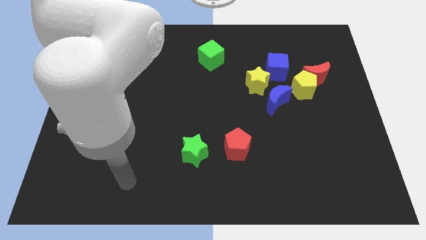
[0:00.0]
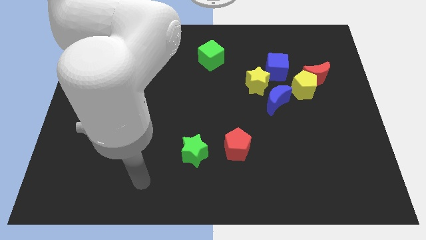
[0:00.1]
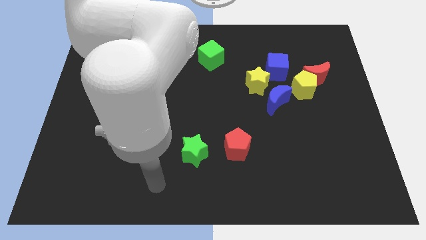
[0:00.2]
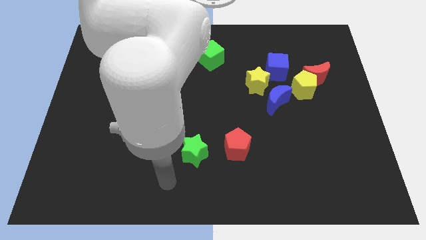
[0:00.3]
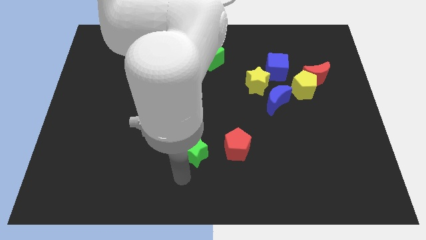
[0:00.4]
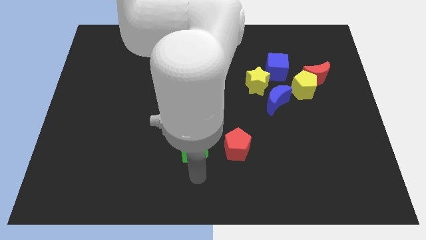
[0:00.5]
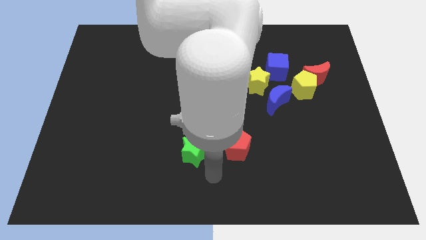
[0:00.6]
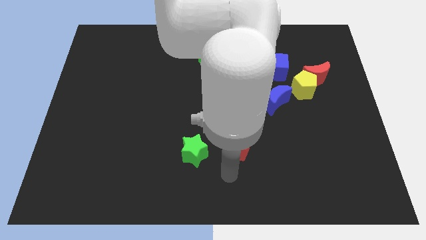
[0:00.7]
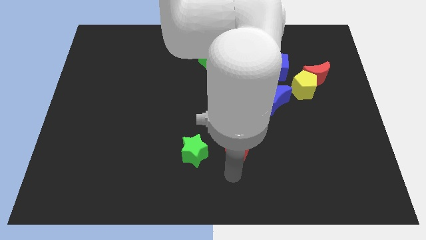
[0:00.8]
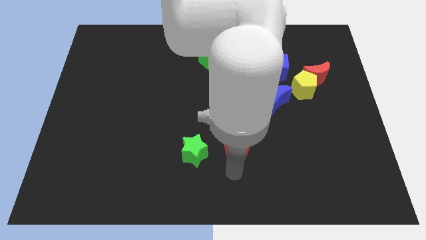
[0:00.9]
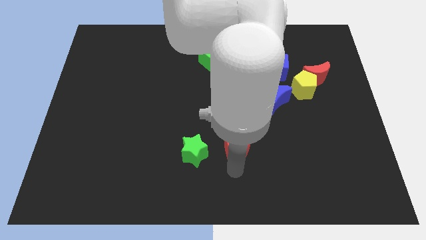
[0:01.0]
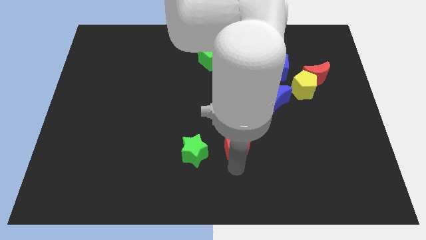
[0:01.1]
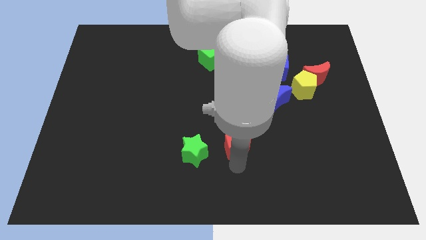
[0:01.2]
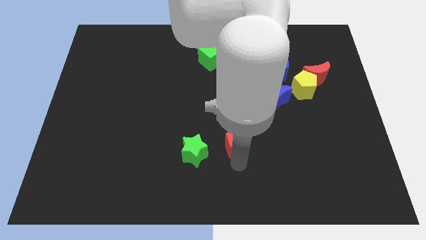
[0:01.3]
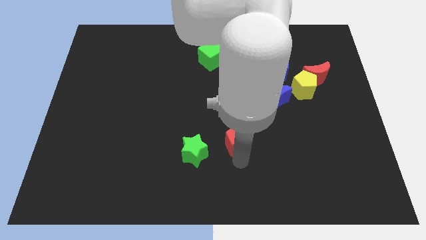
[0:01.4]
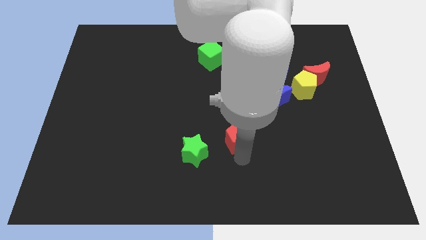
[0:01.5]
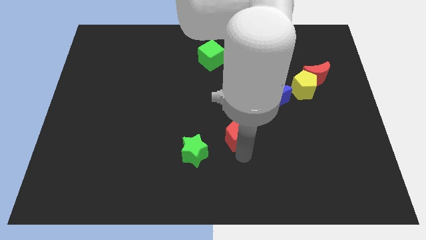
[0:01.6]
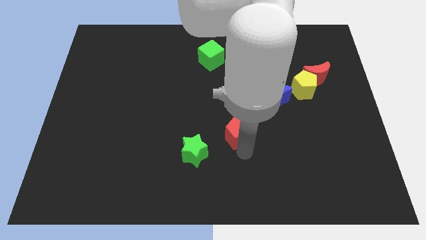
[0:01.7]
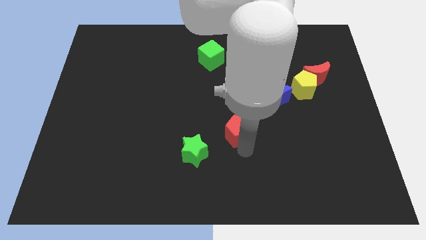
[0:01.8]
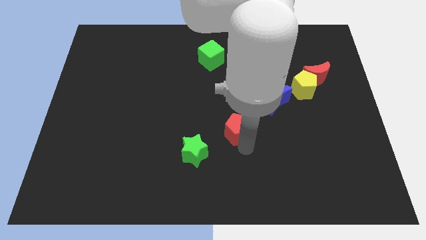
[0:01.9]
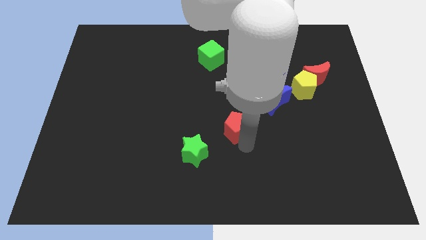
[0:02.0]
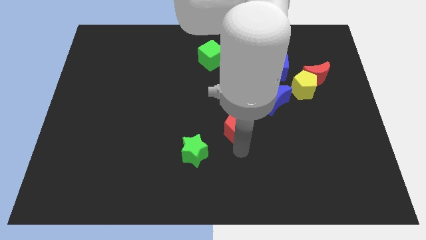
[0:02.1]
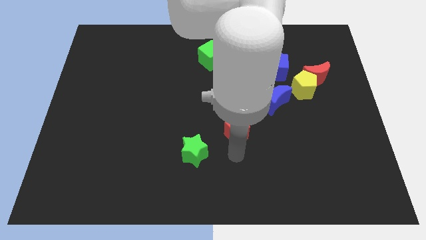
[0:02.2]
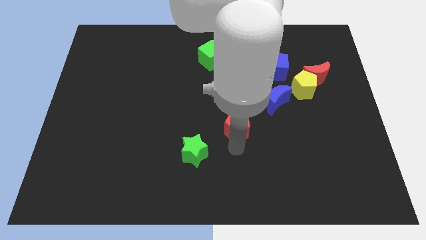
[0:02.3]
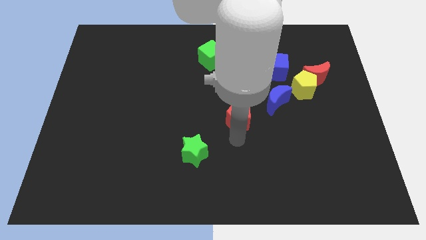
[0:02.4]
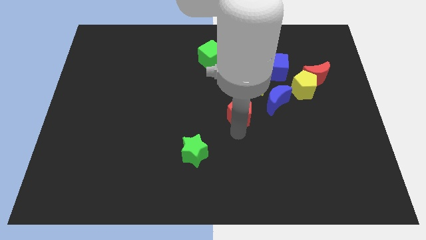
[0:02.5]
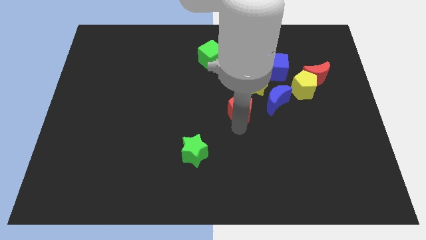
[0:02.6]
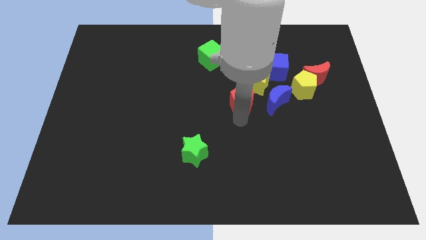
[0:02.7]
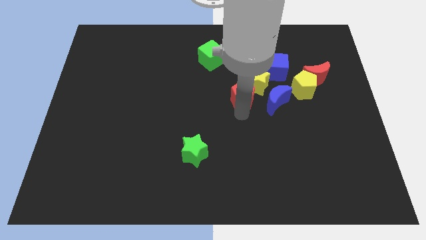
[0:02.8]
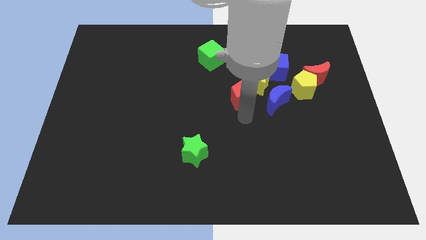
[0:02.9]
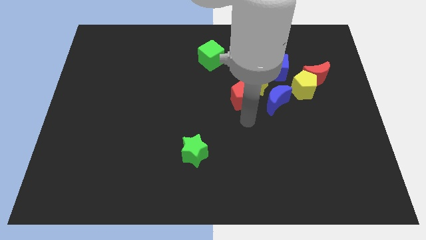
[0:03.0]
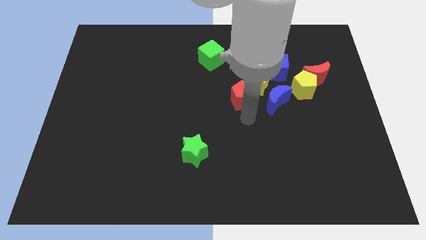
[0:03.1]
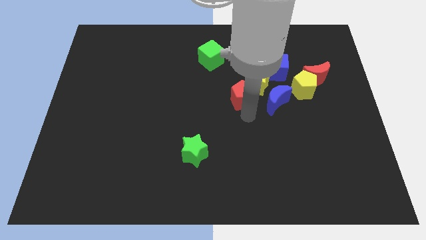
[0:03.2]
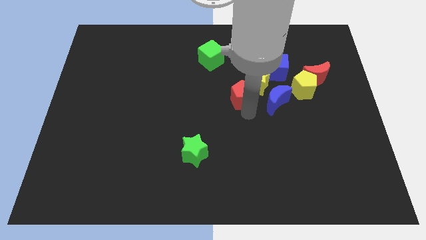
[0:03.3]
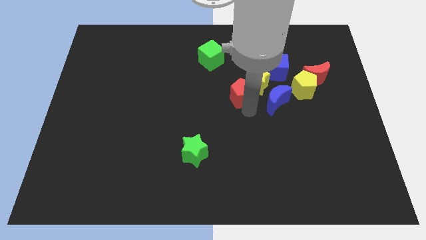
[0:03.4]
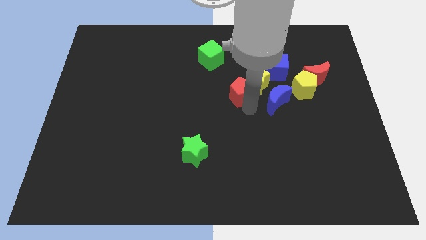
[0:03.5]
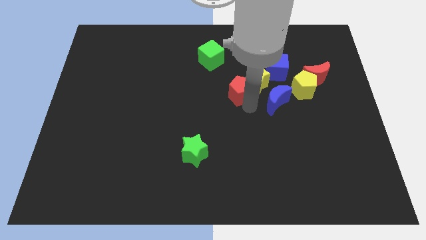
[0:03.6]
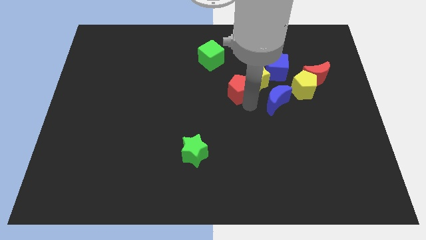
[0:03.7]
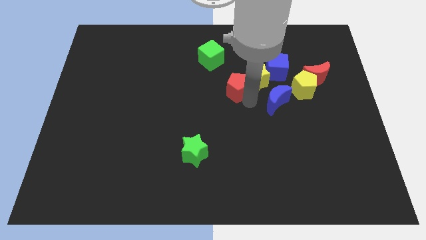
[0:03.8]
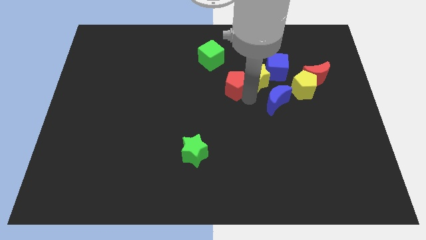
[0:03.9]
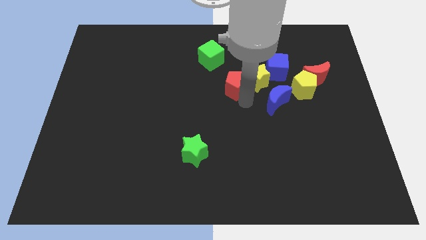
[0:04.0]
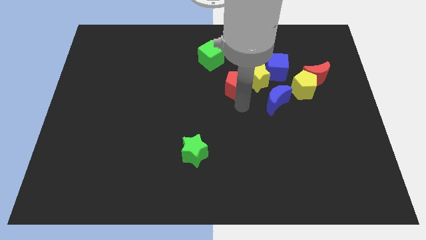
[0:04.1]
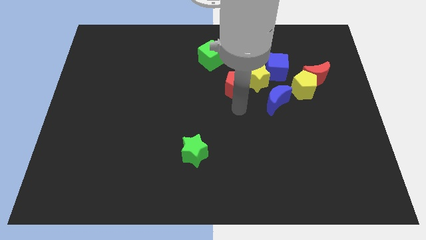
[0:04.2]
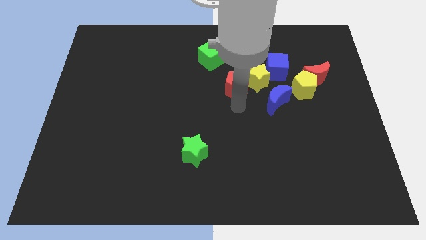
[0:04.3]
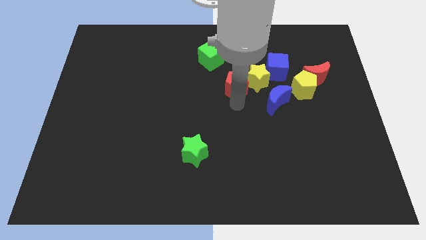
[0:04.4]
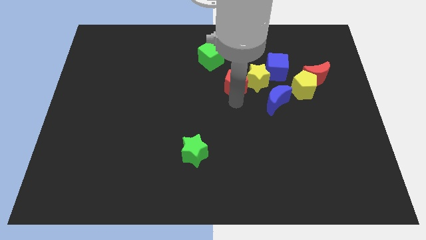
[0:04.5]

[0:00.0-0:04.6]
move the red pentagon to the top left of the yellow star

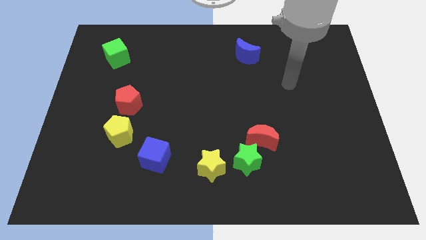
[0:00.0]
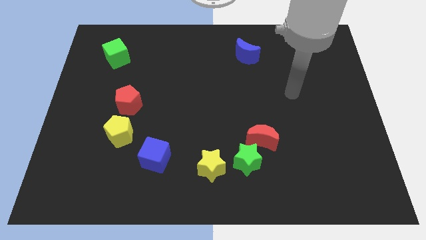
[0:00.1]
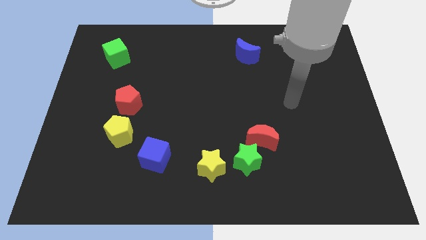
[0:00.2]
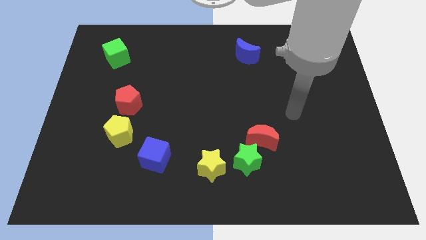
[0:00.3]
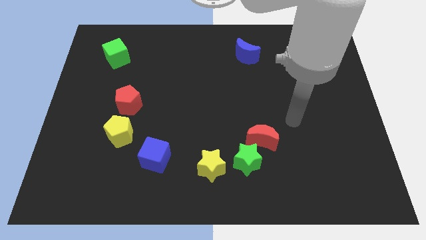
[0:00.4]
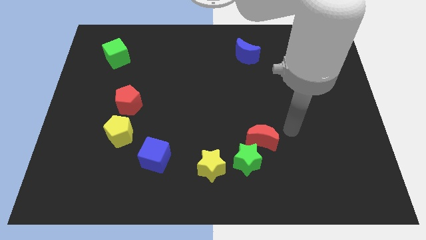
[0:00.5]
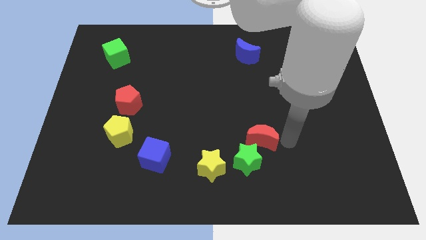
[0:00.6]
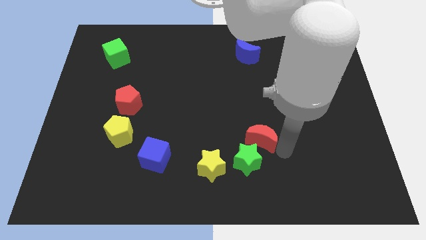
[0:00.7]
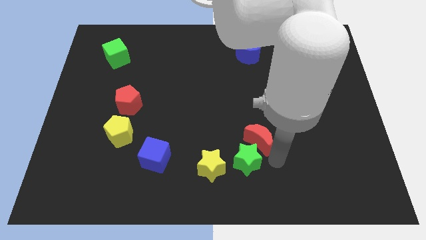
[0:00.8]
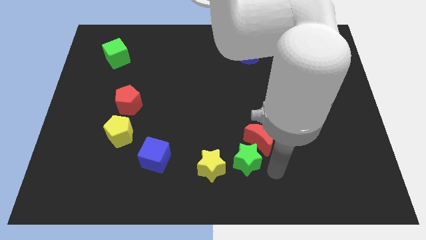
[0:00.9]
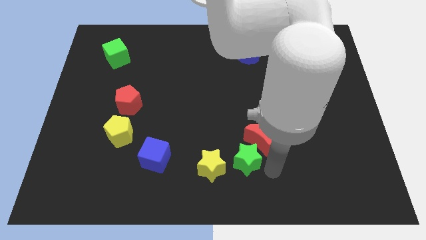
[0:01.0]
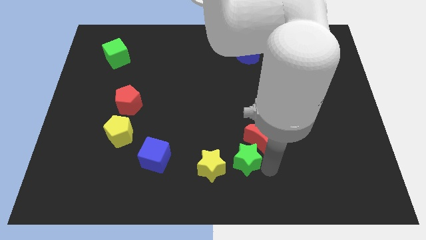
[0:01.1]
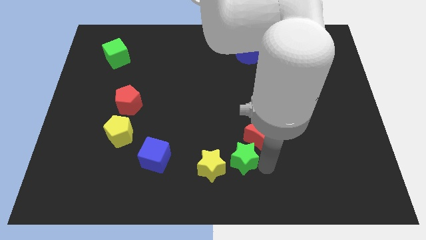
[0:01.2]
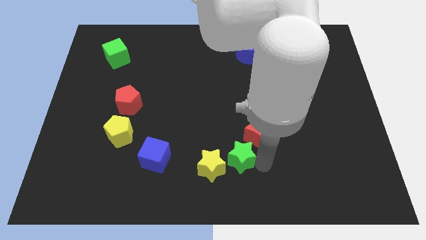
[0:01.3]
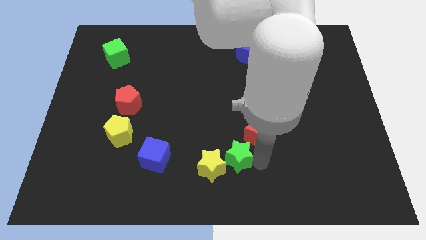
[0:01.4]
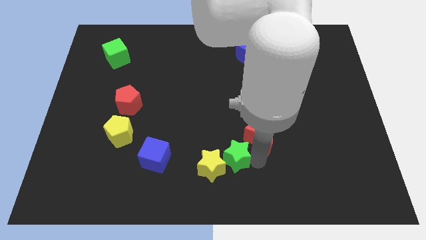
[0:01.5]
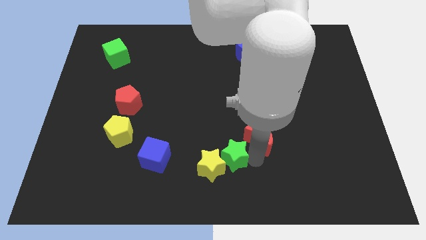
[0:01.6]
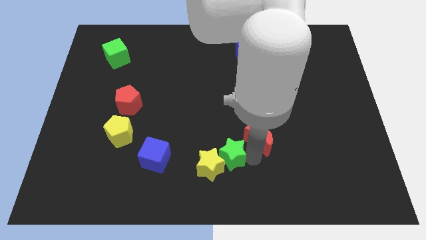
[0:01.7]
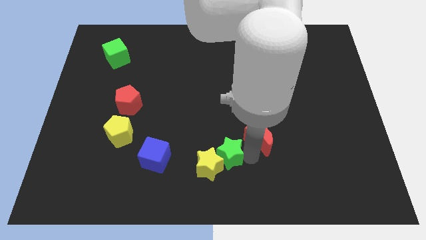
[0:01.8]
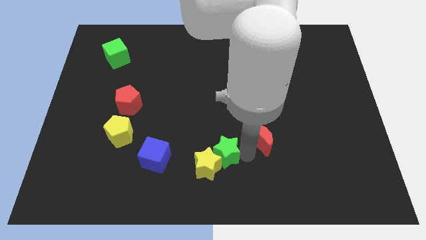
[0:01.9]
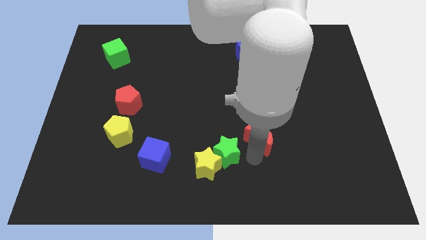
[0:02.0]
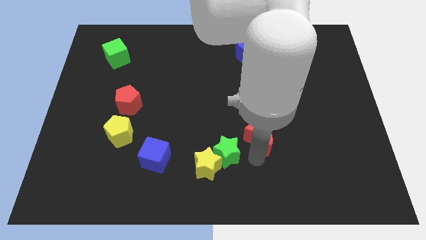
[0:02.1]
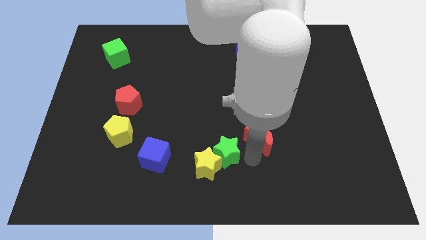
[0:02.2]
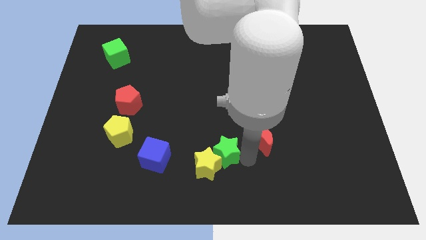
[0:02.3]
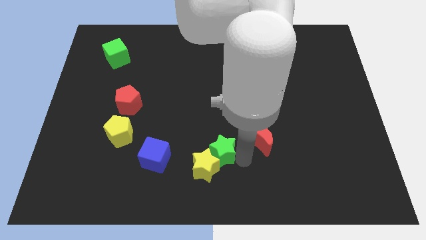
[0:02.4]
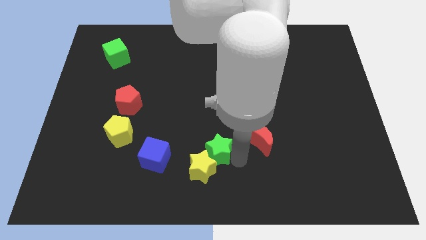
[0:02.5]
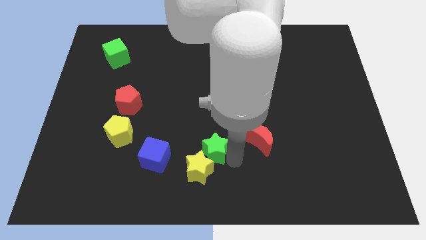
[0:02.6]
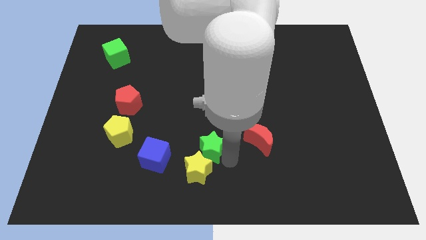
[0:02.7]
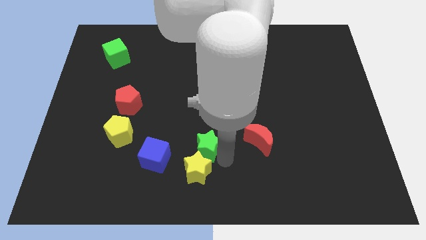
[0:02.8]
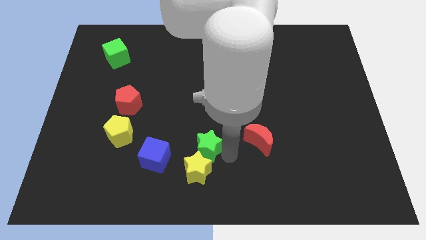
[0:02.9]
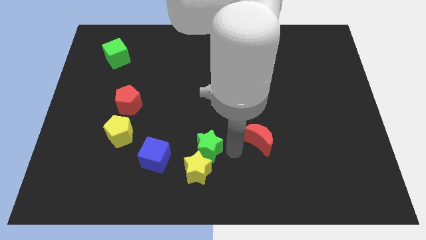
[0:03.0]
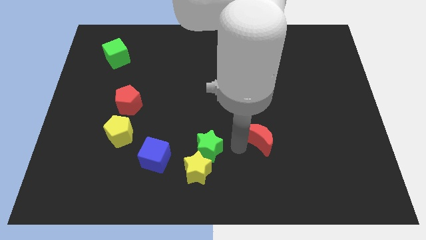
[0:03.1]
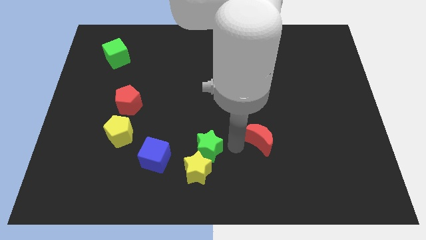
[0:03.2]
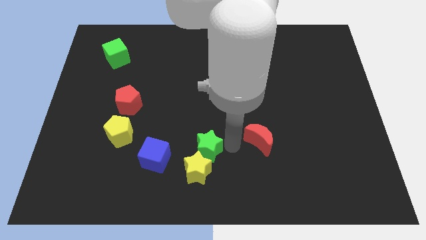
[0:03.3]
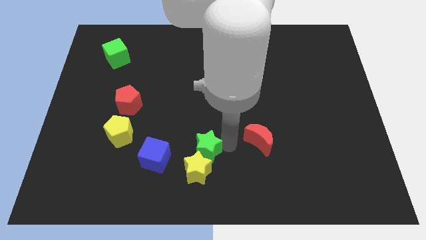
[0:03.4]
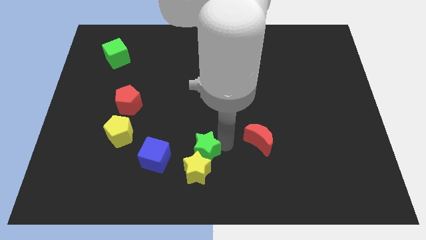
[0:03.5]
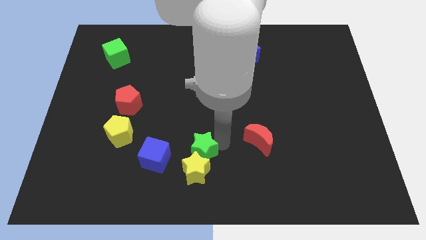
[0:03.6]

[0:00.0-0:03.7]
slide the green star to the top left of the yellow star
